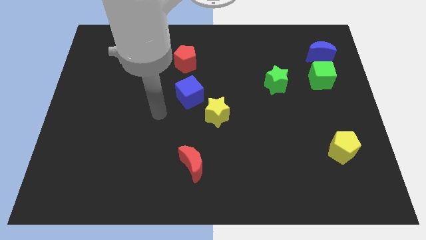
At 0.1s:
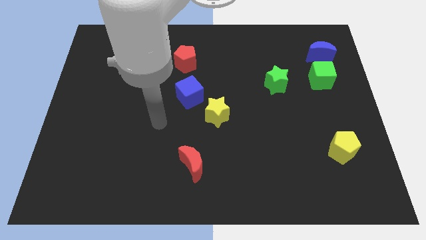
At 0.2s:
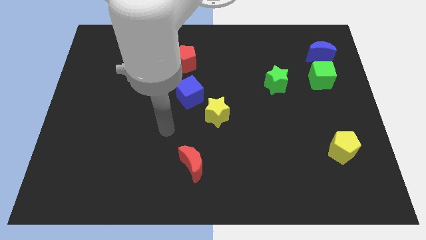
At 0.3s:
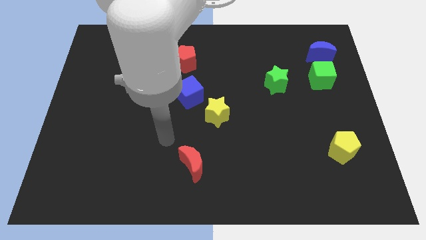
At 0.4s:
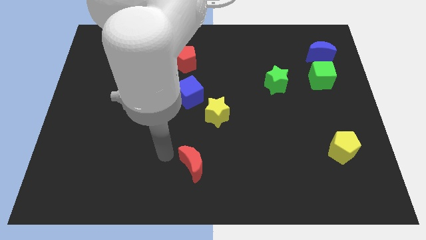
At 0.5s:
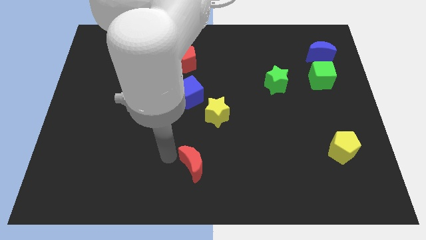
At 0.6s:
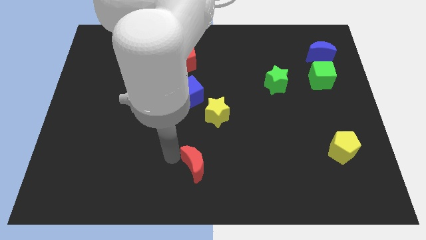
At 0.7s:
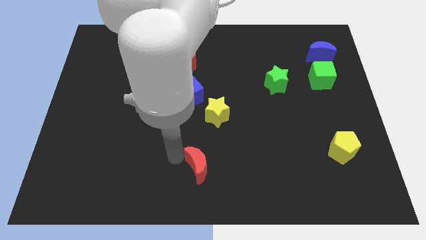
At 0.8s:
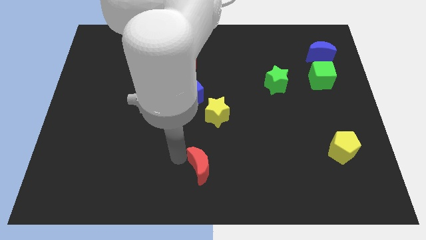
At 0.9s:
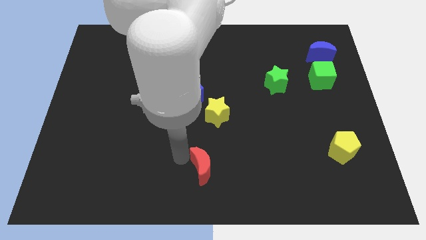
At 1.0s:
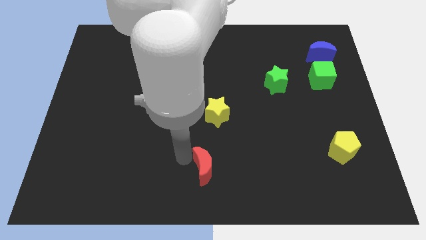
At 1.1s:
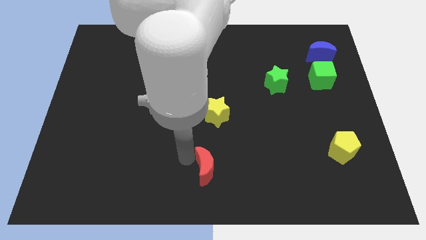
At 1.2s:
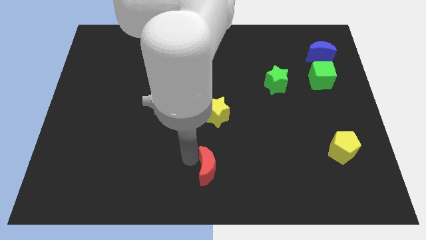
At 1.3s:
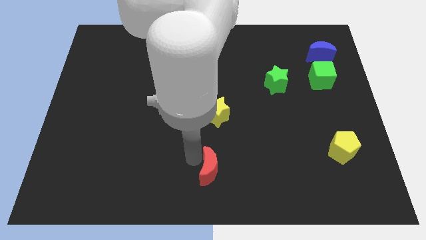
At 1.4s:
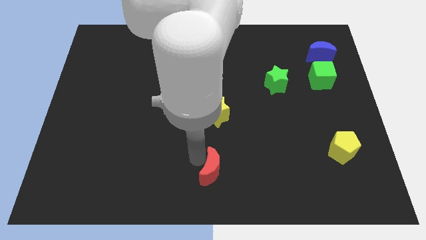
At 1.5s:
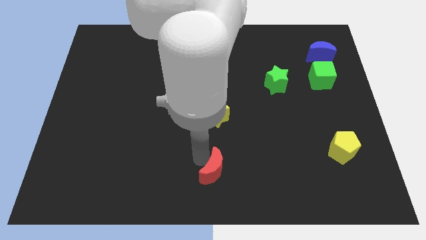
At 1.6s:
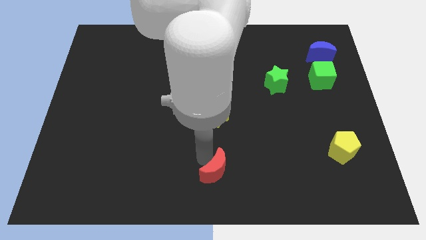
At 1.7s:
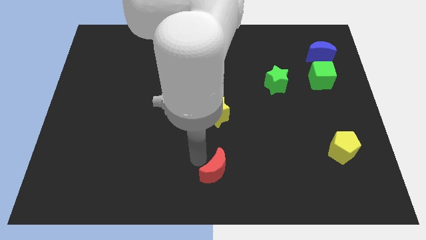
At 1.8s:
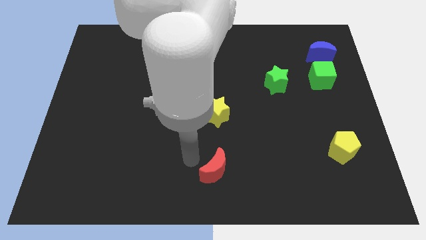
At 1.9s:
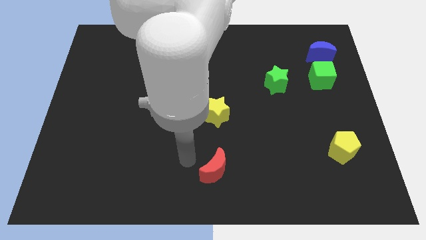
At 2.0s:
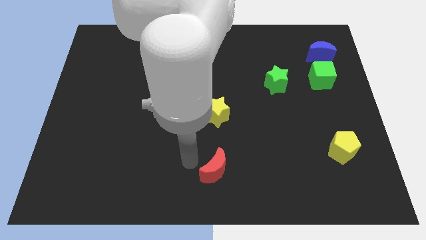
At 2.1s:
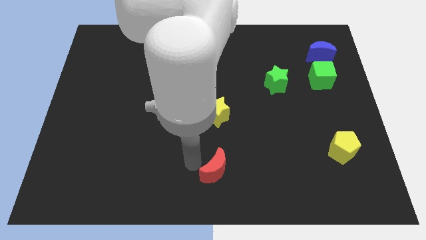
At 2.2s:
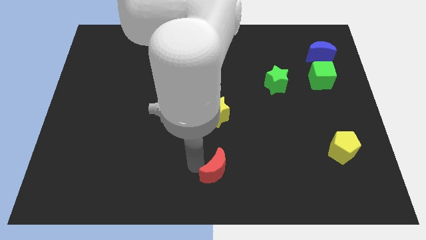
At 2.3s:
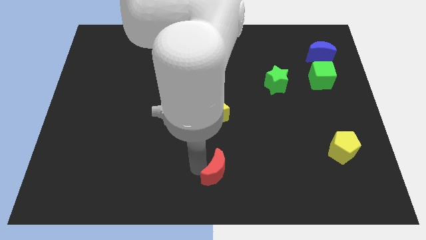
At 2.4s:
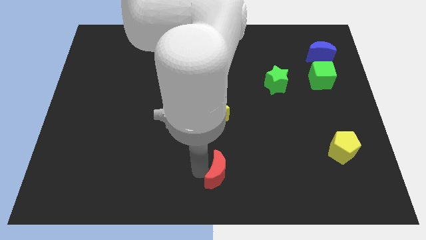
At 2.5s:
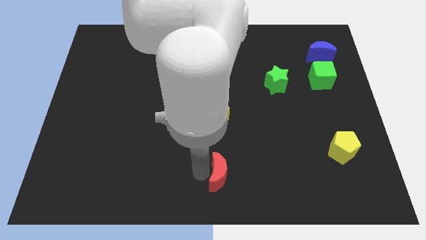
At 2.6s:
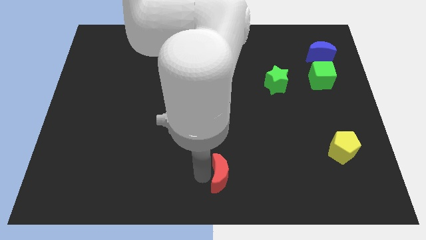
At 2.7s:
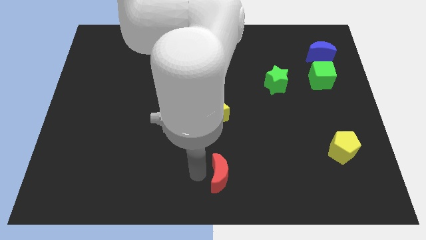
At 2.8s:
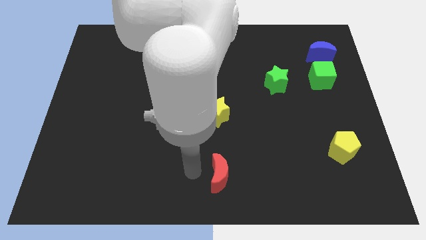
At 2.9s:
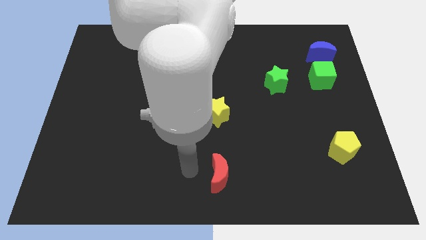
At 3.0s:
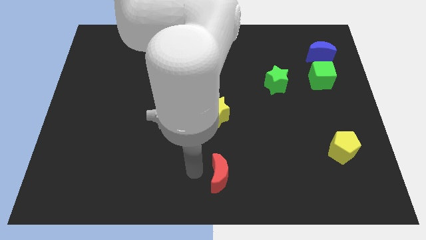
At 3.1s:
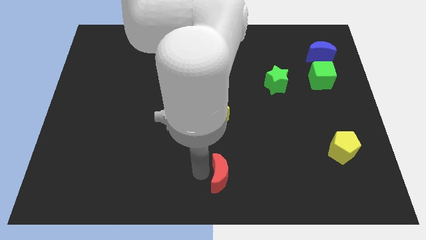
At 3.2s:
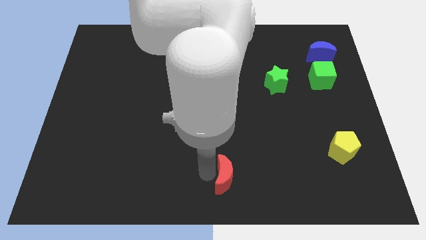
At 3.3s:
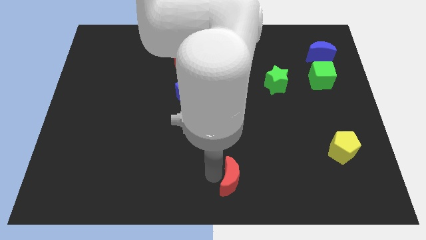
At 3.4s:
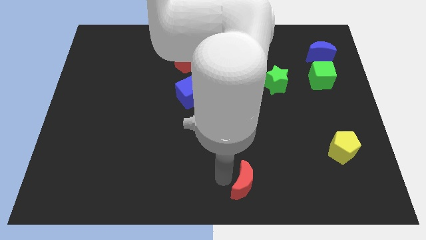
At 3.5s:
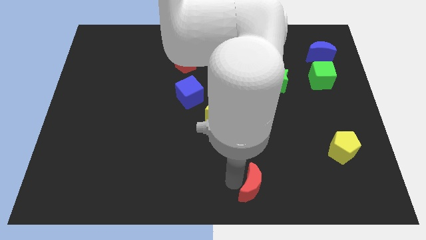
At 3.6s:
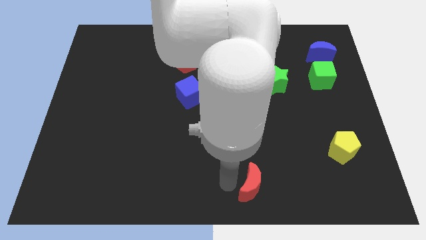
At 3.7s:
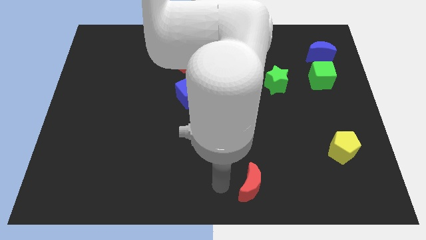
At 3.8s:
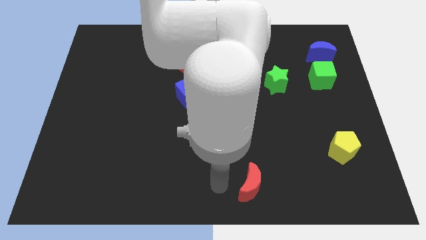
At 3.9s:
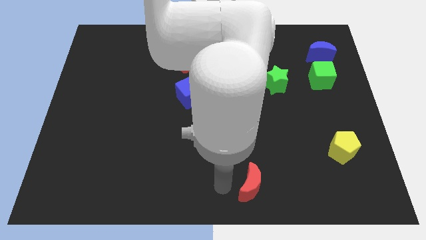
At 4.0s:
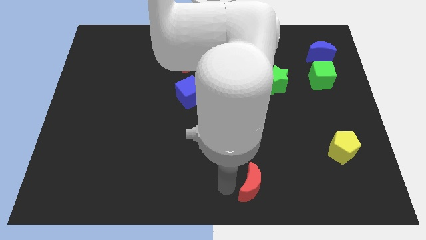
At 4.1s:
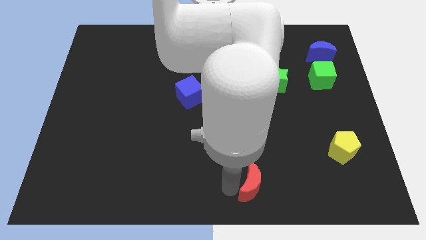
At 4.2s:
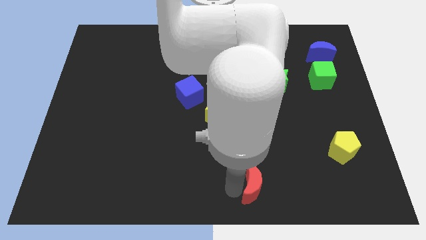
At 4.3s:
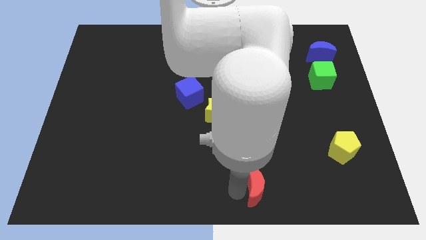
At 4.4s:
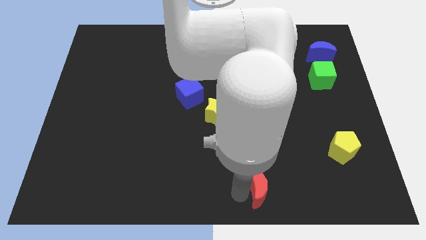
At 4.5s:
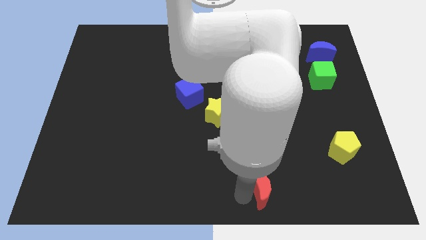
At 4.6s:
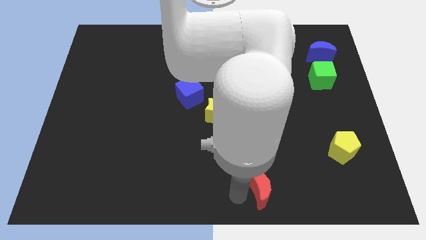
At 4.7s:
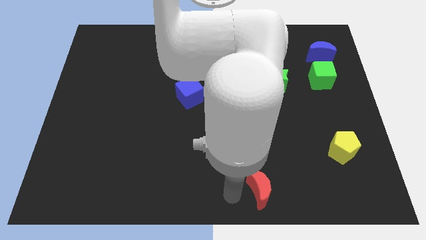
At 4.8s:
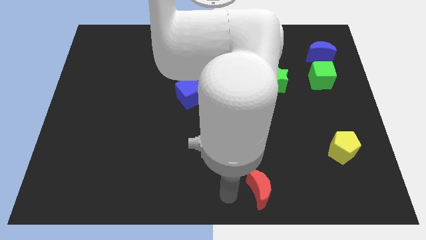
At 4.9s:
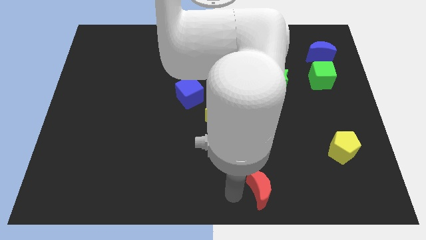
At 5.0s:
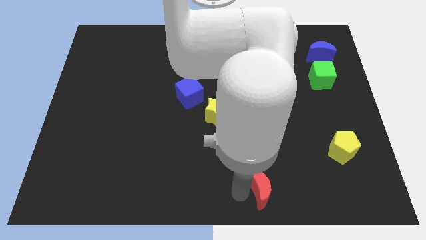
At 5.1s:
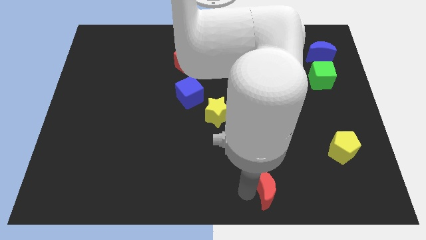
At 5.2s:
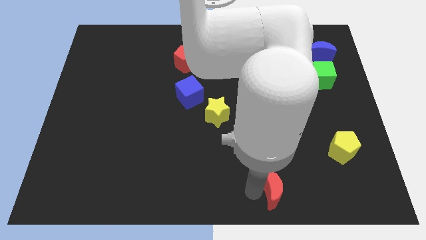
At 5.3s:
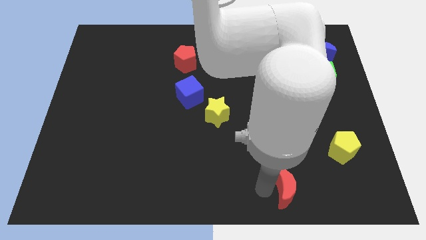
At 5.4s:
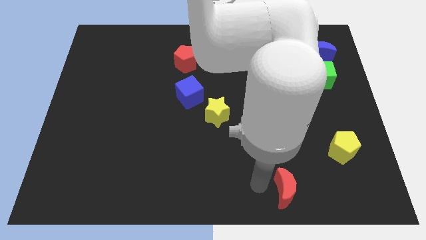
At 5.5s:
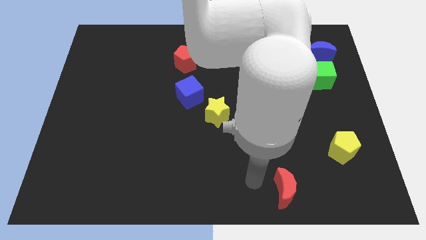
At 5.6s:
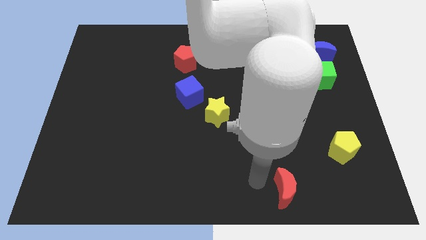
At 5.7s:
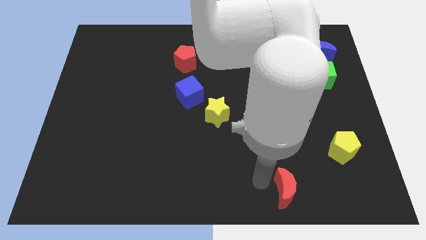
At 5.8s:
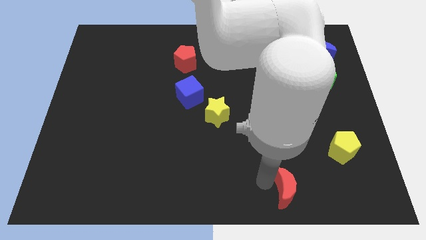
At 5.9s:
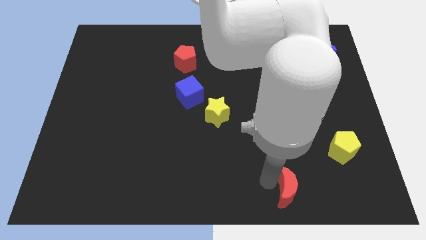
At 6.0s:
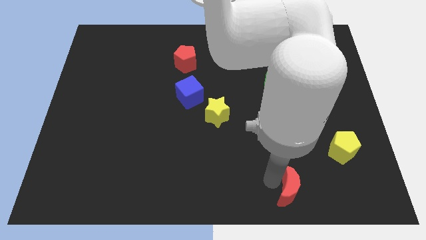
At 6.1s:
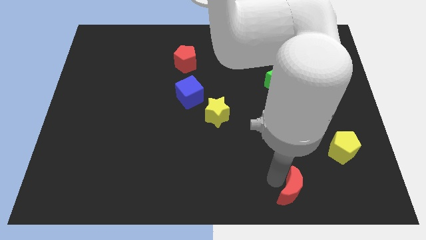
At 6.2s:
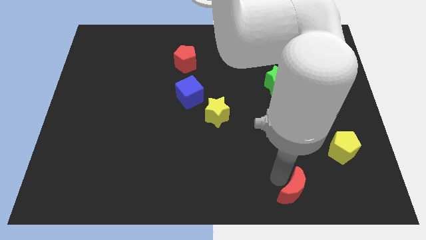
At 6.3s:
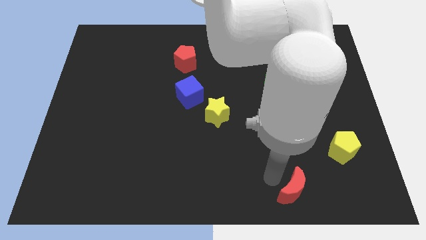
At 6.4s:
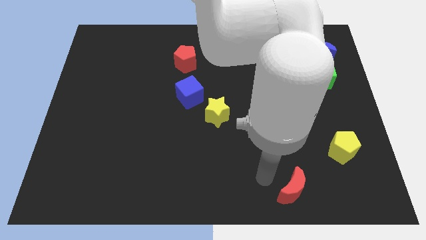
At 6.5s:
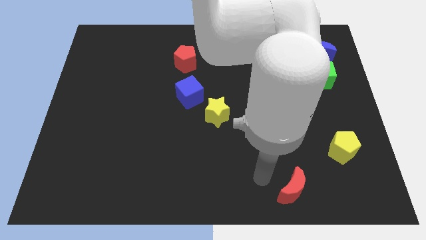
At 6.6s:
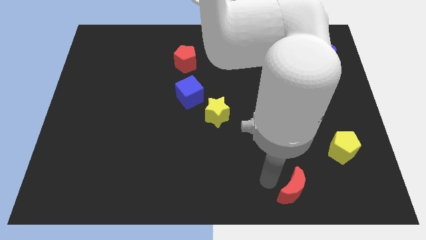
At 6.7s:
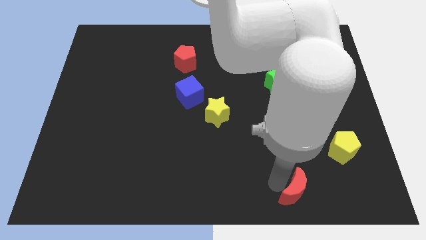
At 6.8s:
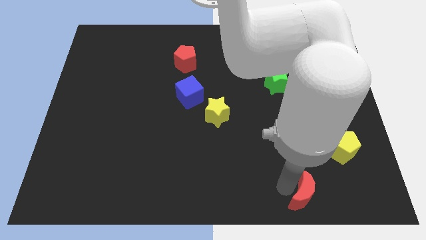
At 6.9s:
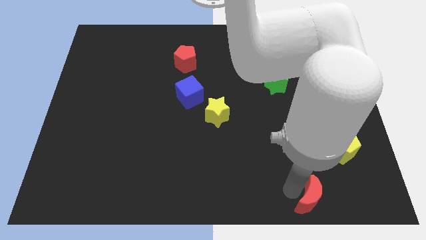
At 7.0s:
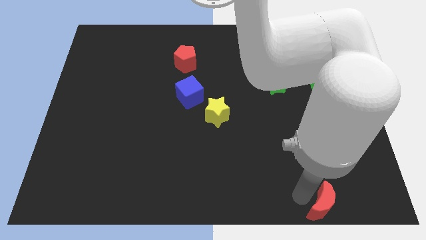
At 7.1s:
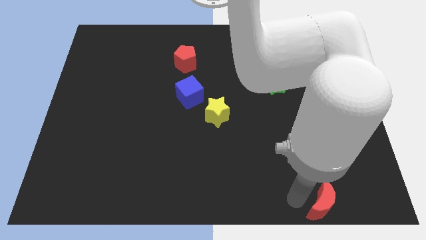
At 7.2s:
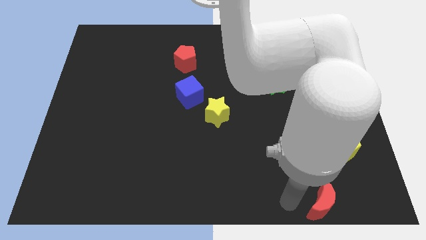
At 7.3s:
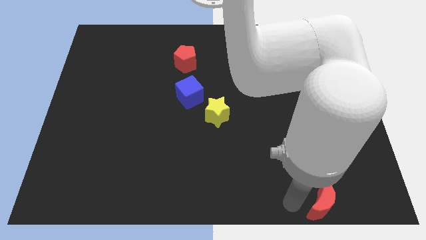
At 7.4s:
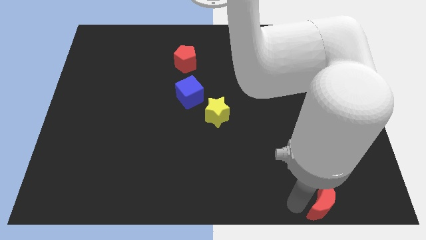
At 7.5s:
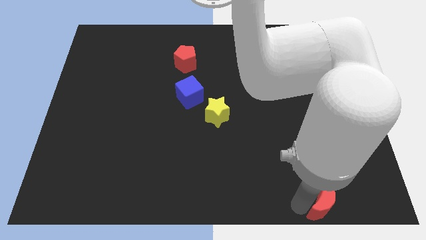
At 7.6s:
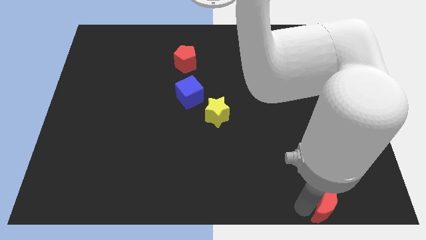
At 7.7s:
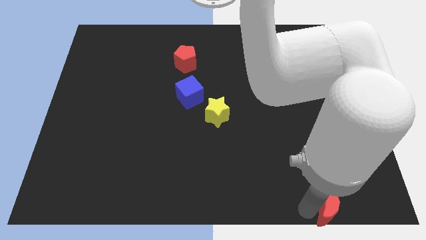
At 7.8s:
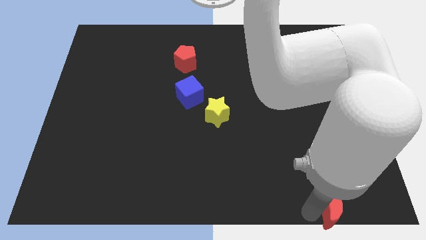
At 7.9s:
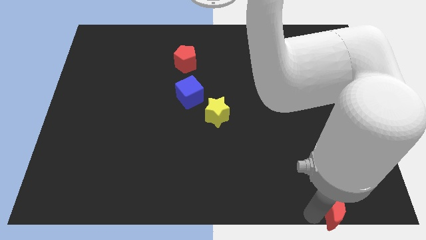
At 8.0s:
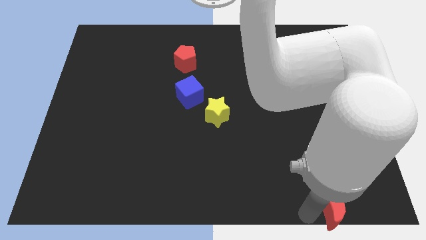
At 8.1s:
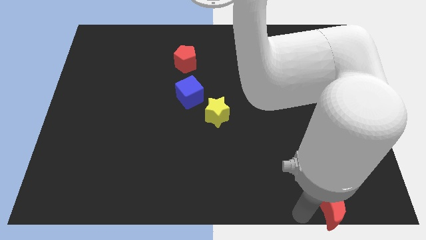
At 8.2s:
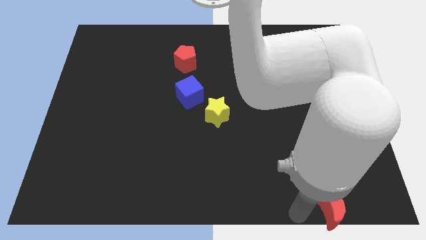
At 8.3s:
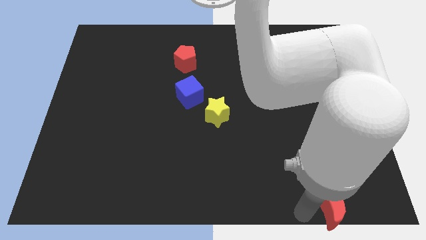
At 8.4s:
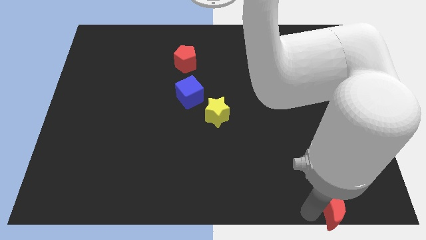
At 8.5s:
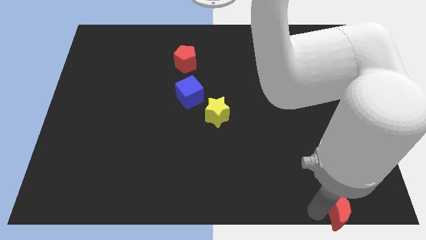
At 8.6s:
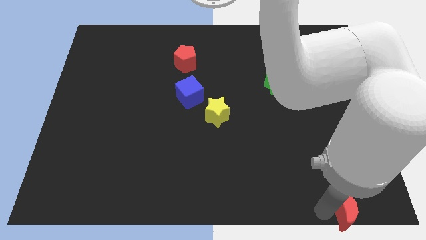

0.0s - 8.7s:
move the red moon to the bottom right corner
